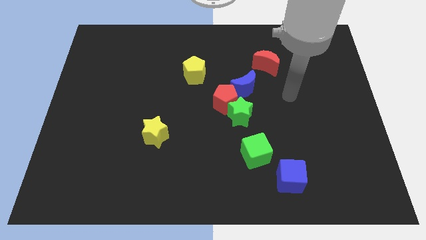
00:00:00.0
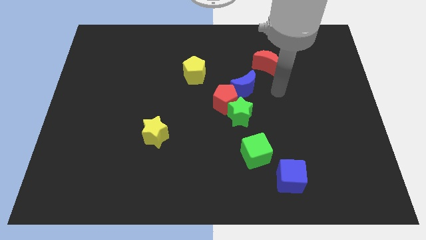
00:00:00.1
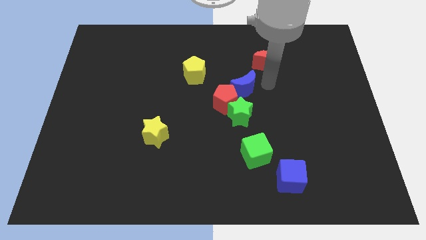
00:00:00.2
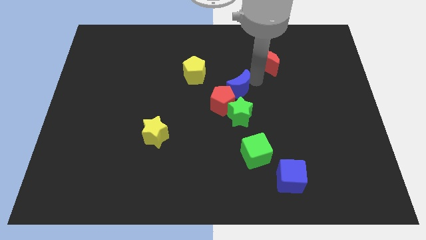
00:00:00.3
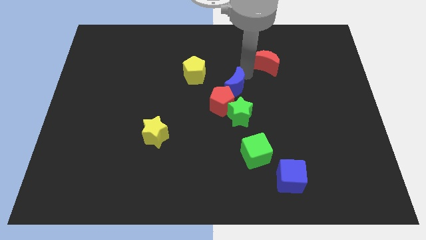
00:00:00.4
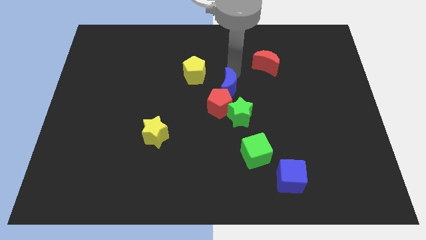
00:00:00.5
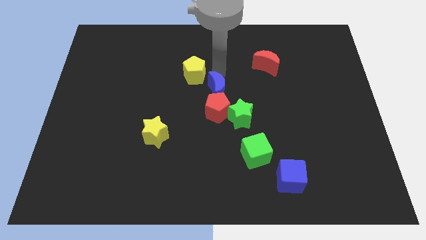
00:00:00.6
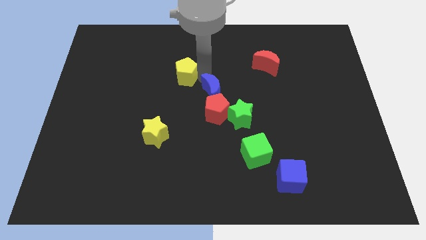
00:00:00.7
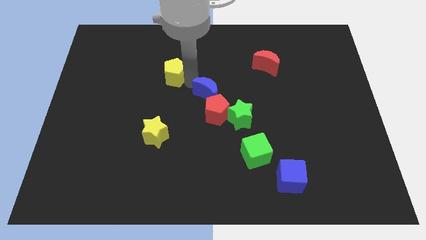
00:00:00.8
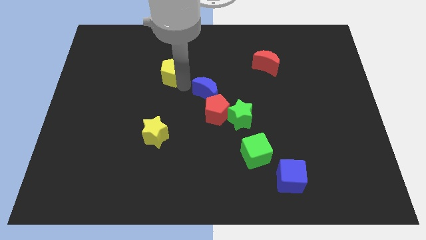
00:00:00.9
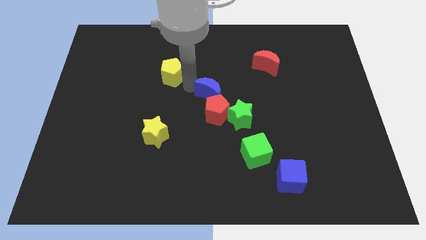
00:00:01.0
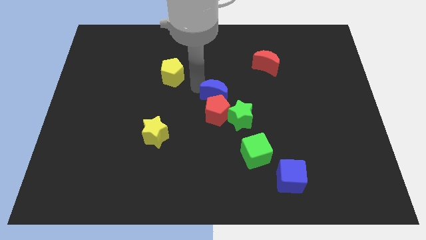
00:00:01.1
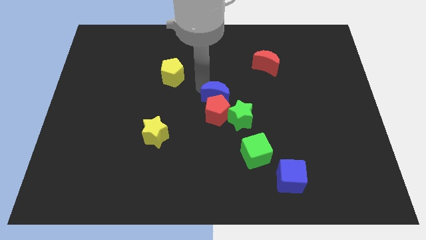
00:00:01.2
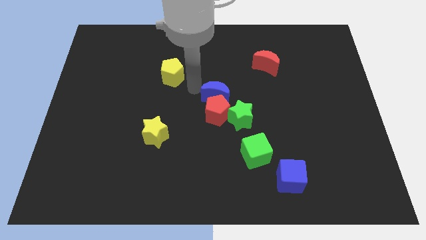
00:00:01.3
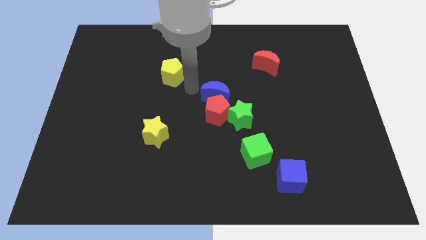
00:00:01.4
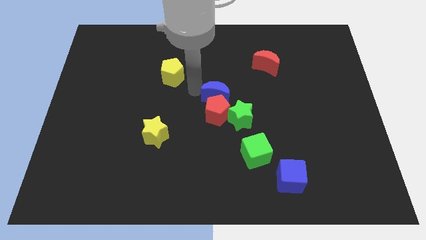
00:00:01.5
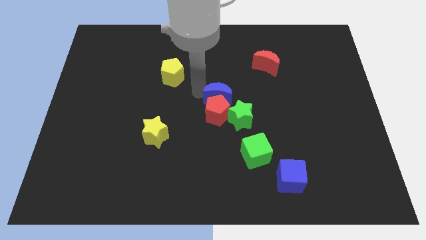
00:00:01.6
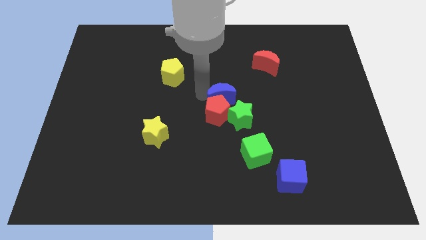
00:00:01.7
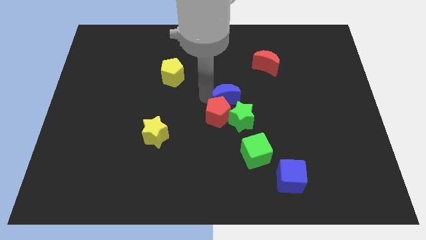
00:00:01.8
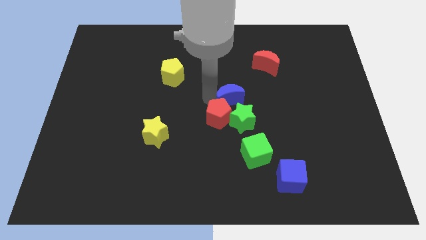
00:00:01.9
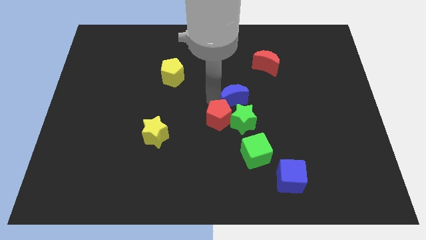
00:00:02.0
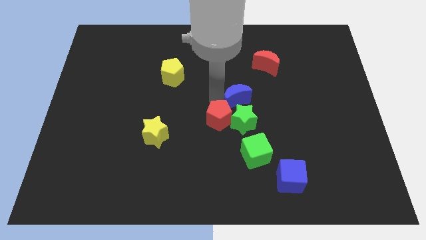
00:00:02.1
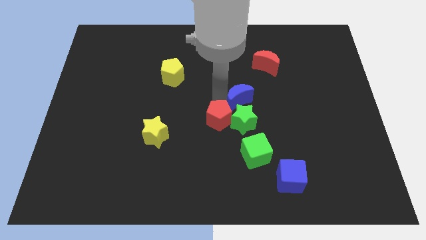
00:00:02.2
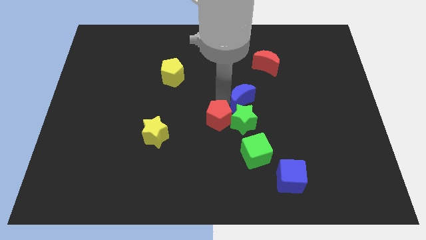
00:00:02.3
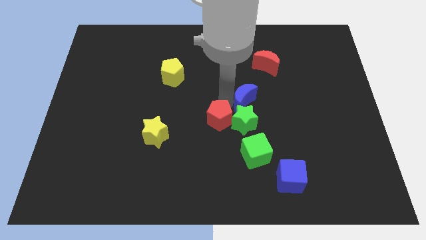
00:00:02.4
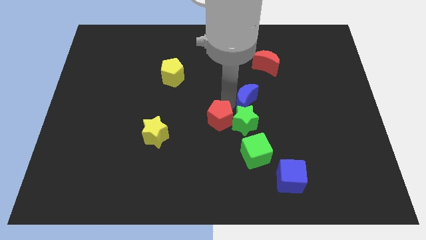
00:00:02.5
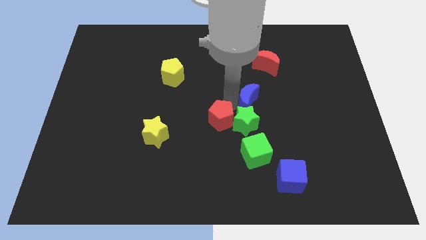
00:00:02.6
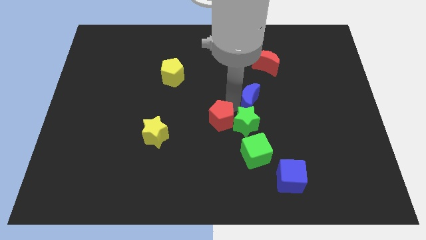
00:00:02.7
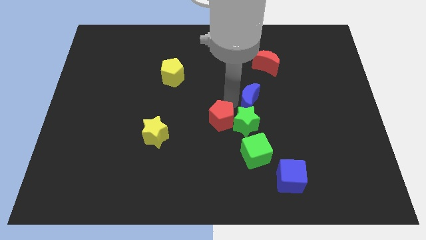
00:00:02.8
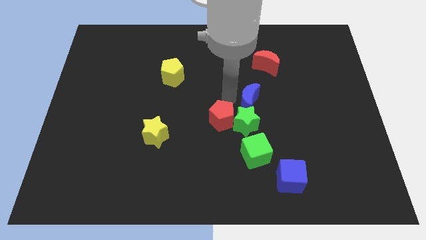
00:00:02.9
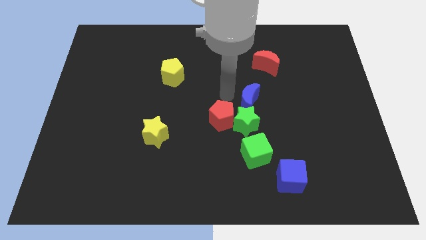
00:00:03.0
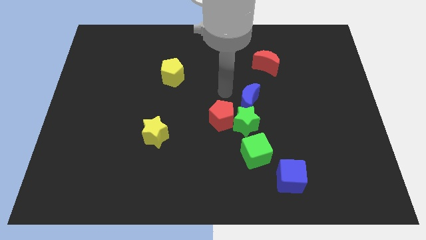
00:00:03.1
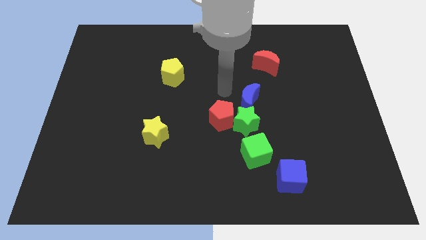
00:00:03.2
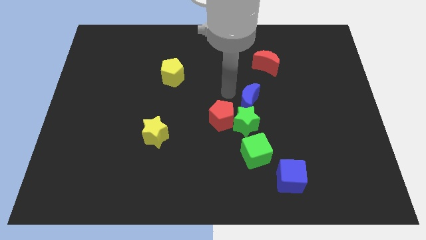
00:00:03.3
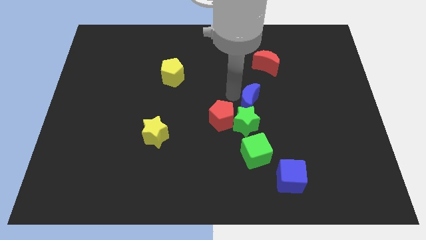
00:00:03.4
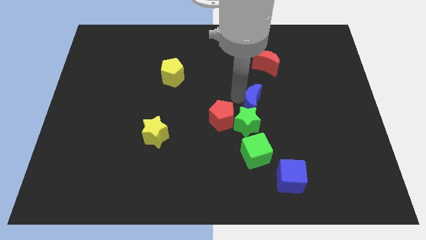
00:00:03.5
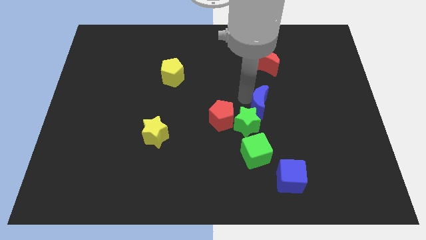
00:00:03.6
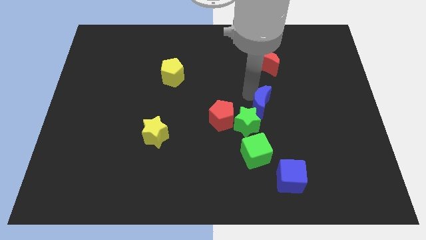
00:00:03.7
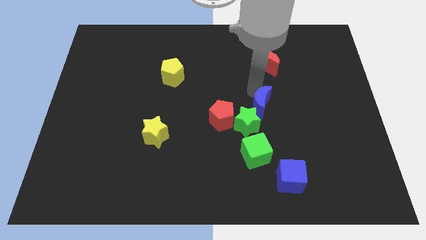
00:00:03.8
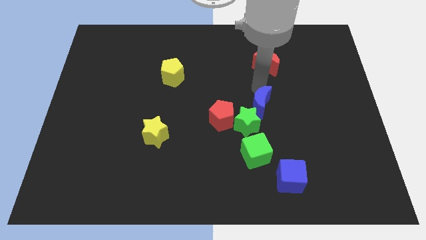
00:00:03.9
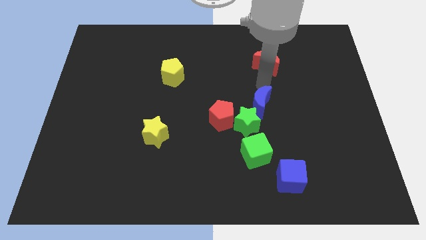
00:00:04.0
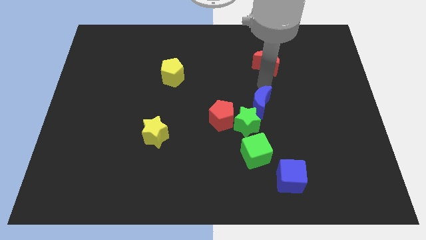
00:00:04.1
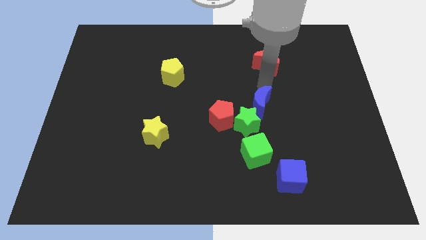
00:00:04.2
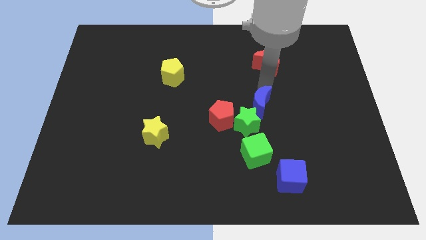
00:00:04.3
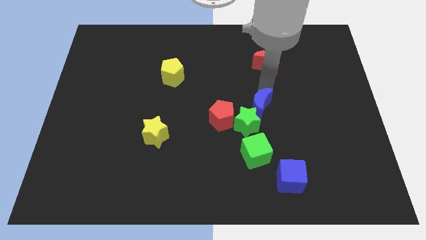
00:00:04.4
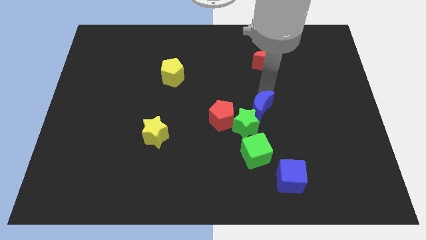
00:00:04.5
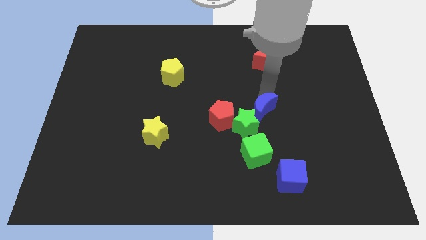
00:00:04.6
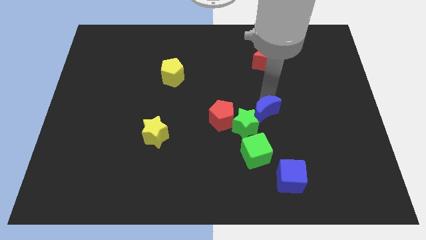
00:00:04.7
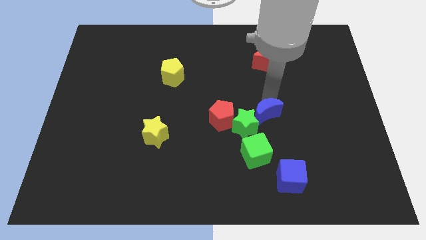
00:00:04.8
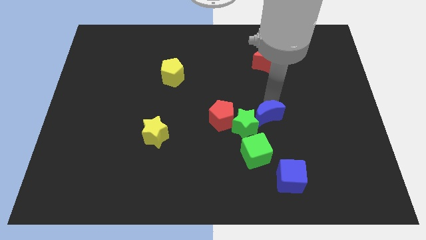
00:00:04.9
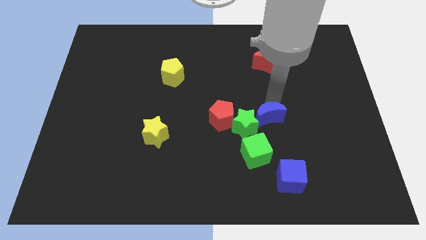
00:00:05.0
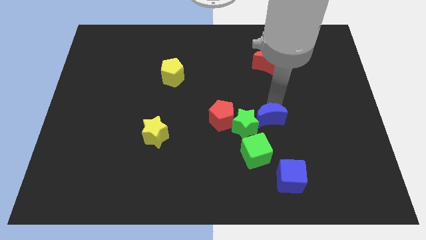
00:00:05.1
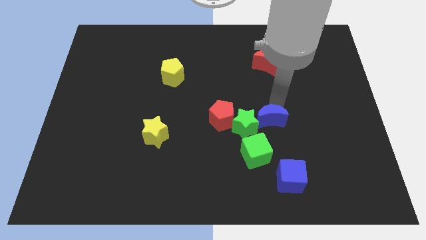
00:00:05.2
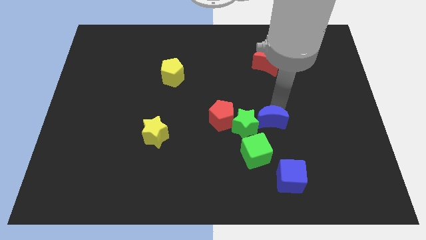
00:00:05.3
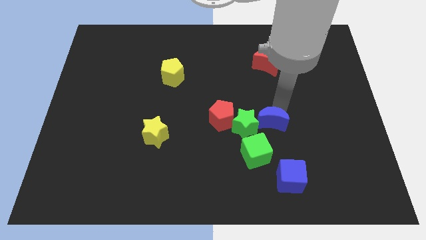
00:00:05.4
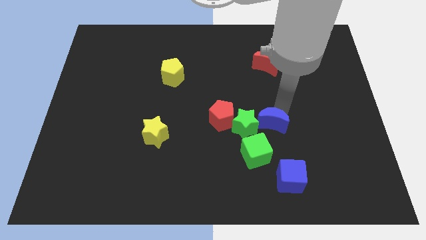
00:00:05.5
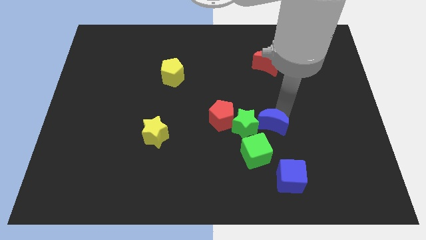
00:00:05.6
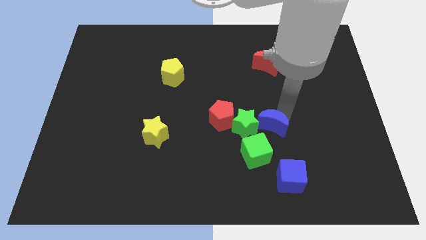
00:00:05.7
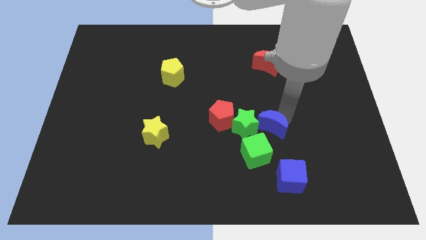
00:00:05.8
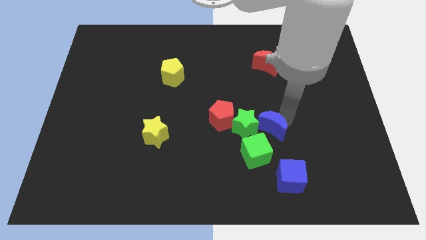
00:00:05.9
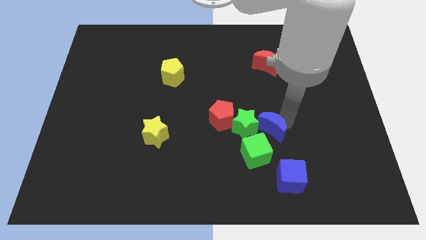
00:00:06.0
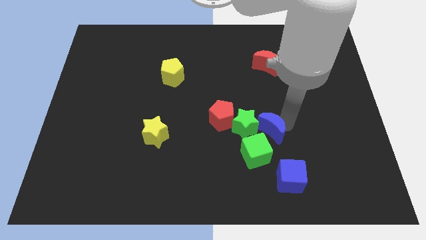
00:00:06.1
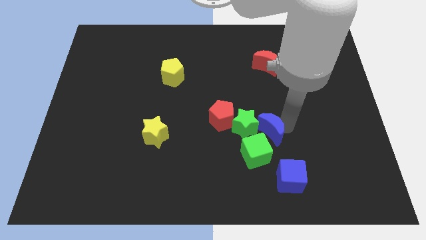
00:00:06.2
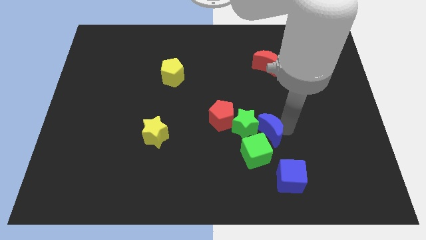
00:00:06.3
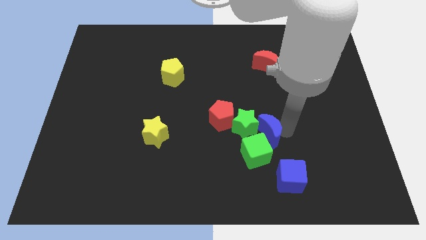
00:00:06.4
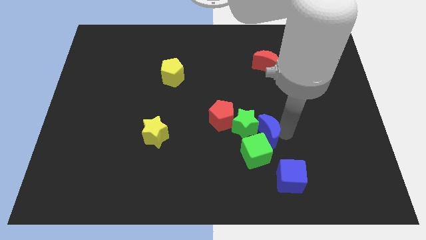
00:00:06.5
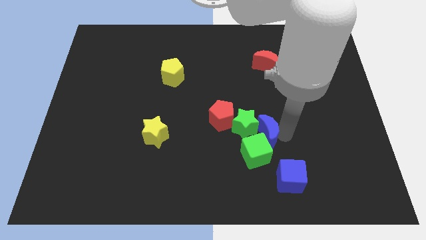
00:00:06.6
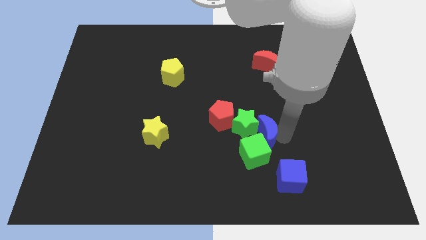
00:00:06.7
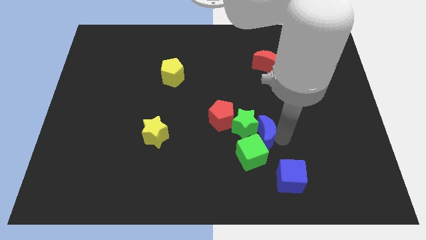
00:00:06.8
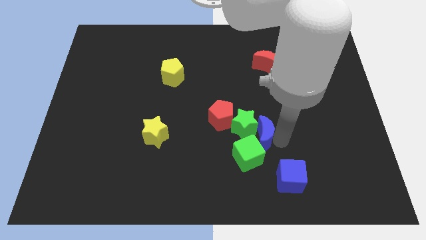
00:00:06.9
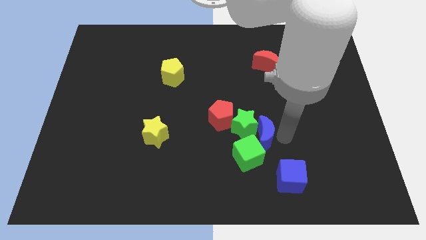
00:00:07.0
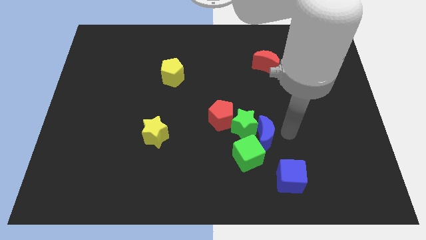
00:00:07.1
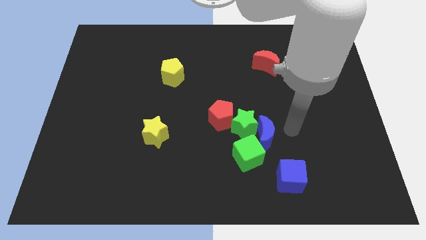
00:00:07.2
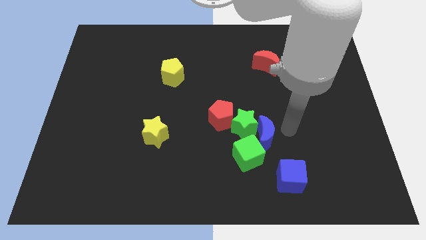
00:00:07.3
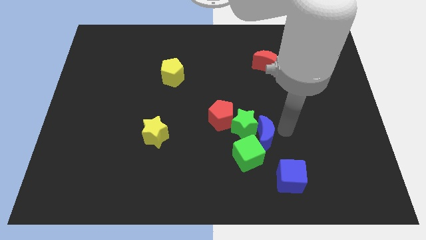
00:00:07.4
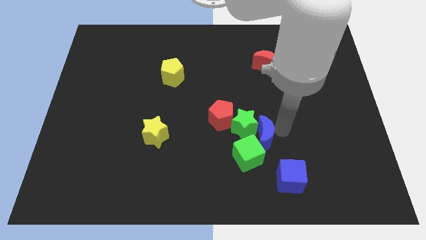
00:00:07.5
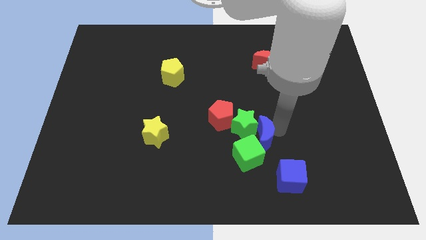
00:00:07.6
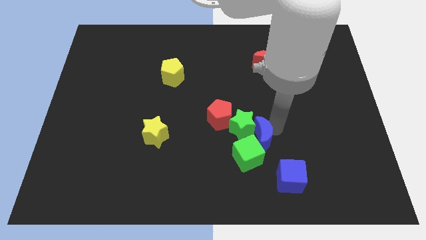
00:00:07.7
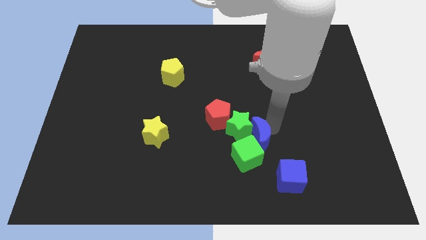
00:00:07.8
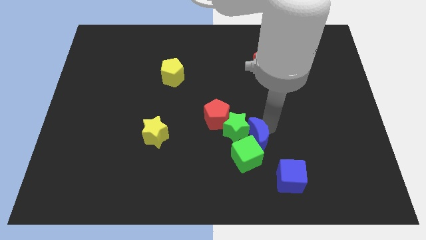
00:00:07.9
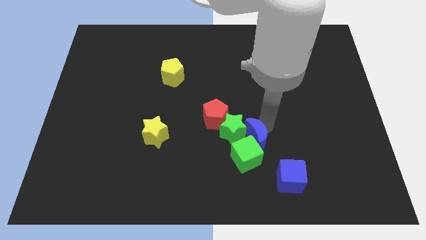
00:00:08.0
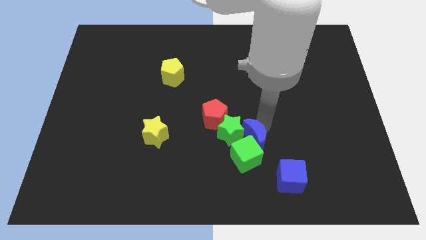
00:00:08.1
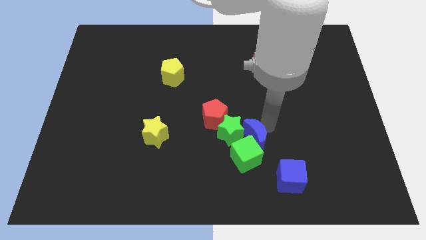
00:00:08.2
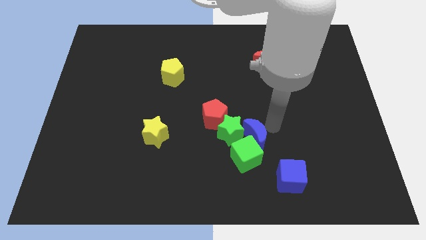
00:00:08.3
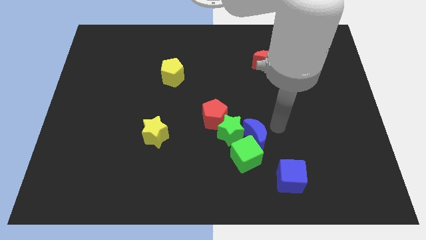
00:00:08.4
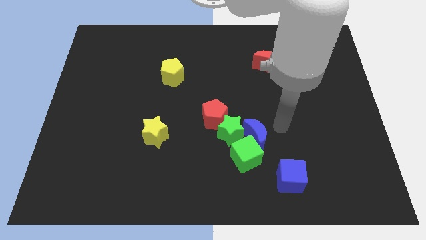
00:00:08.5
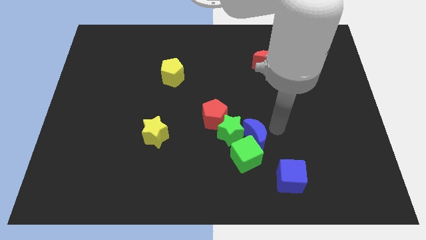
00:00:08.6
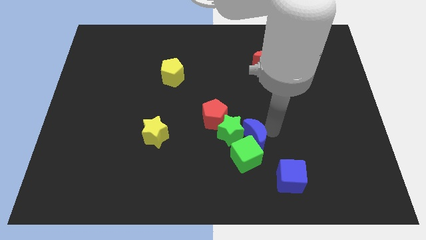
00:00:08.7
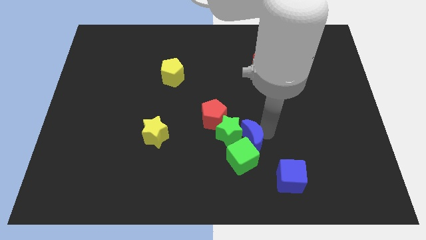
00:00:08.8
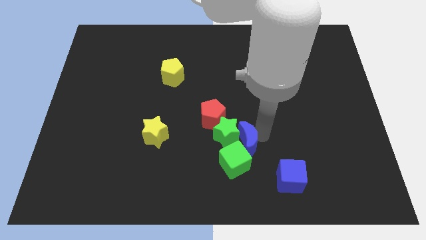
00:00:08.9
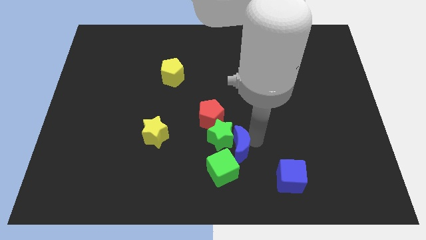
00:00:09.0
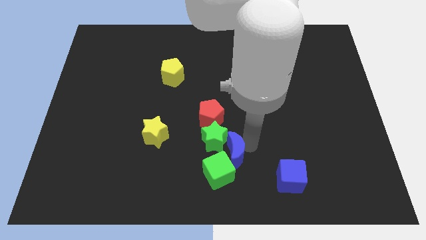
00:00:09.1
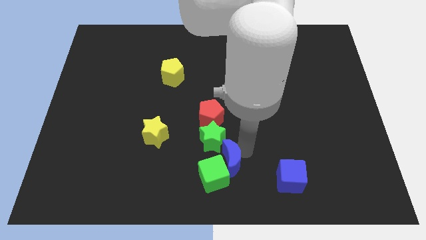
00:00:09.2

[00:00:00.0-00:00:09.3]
slide the blue moon to the bottom side
